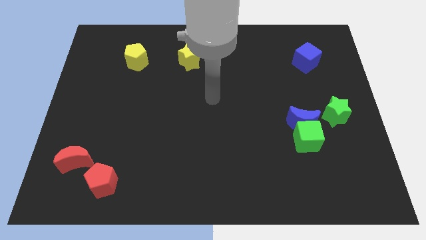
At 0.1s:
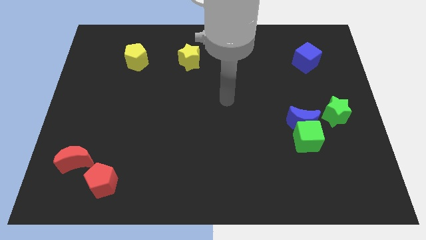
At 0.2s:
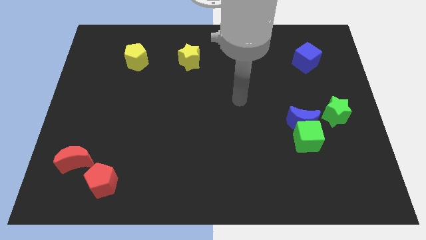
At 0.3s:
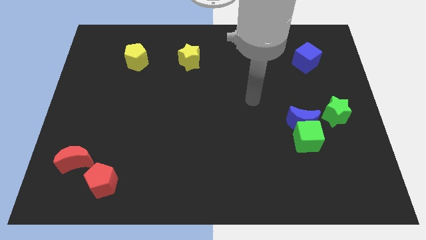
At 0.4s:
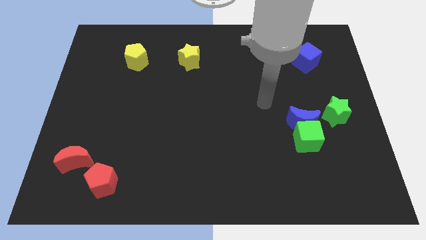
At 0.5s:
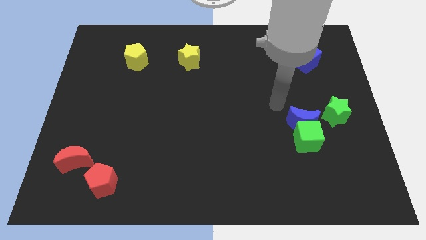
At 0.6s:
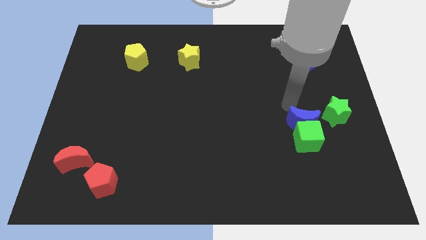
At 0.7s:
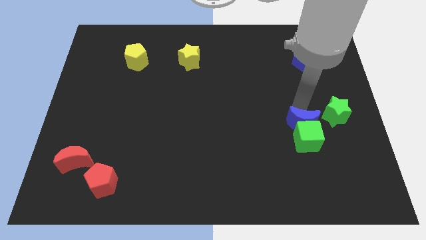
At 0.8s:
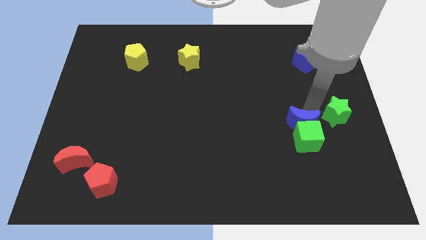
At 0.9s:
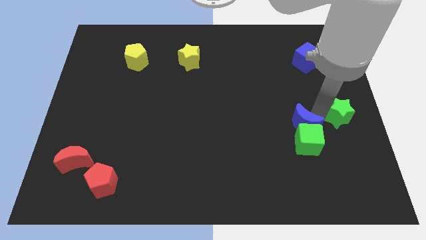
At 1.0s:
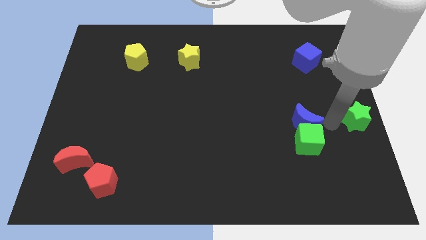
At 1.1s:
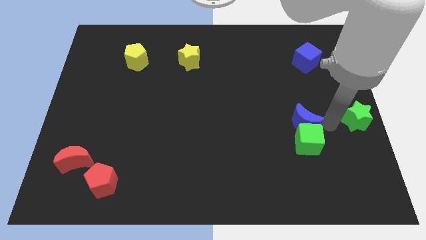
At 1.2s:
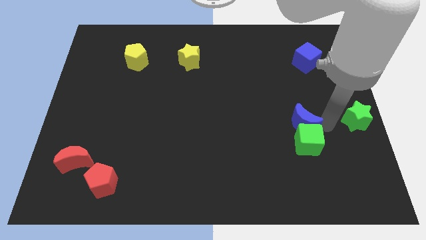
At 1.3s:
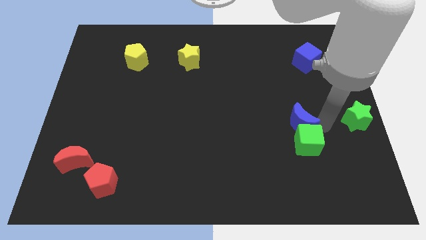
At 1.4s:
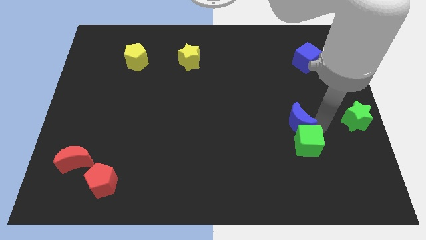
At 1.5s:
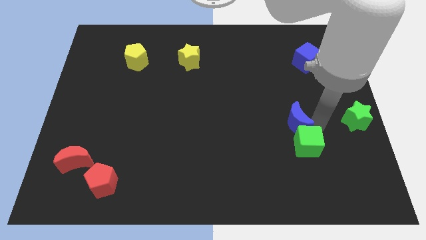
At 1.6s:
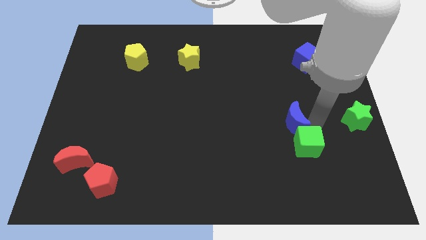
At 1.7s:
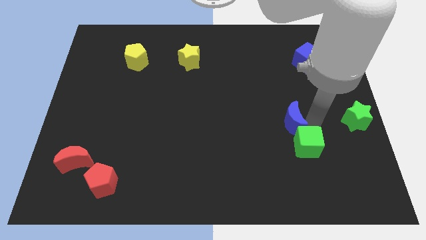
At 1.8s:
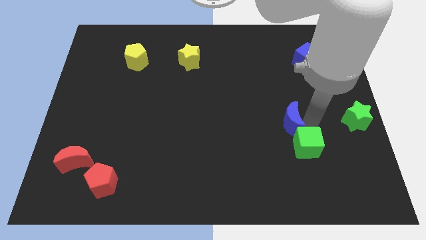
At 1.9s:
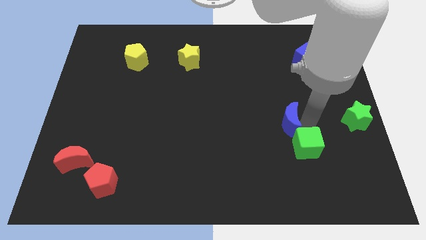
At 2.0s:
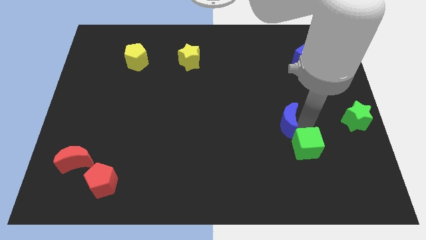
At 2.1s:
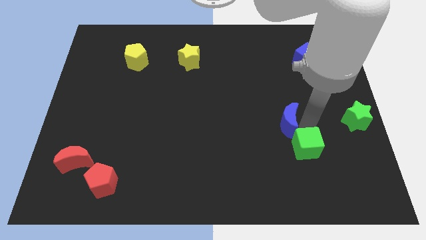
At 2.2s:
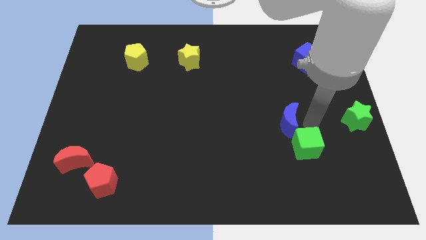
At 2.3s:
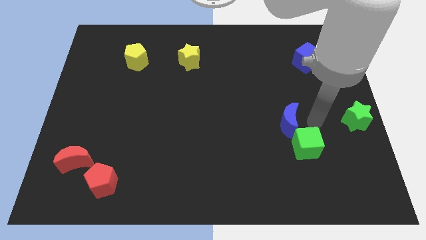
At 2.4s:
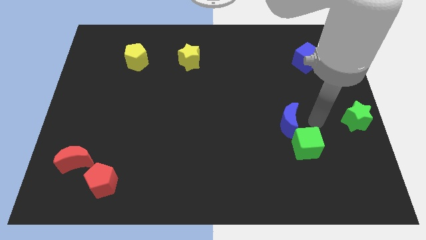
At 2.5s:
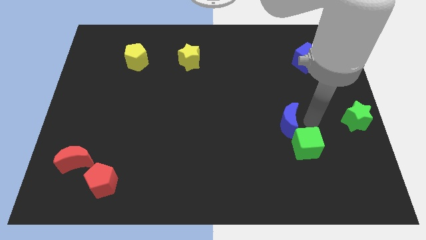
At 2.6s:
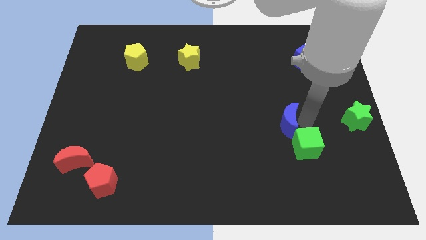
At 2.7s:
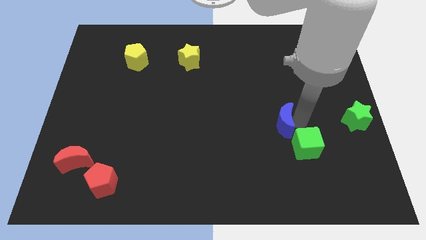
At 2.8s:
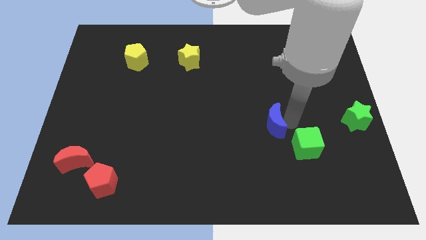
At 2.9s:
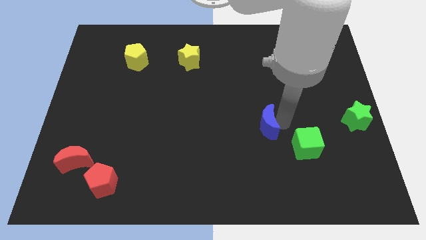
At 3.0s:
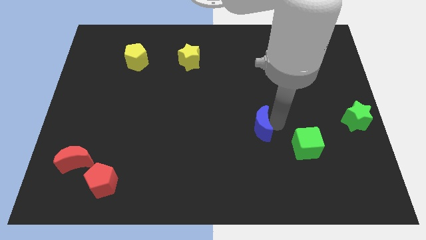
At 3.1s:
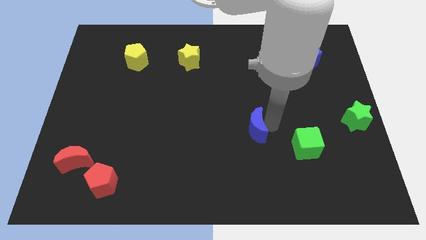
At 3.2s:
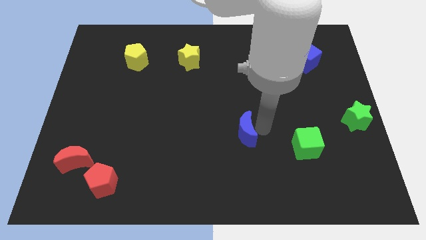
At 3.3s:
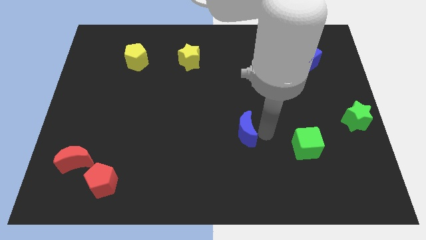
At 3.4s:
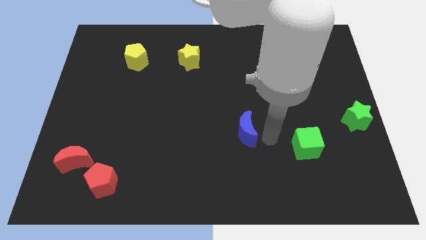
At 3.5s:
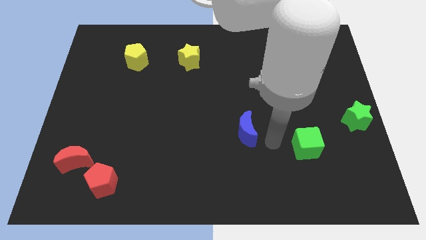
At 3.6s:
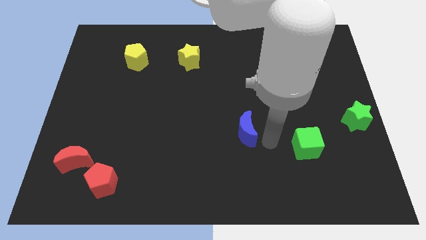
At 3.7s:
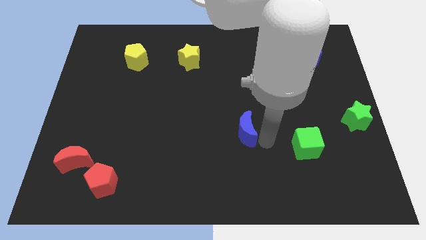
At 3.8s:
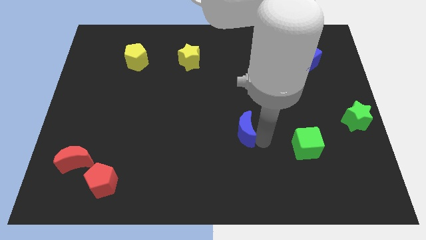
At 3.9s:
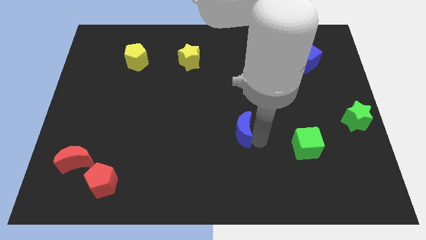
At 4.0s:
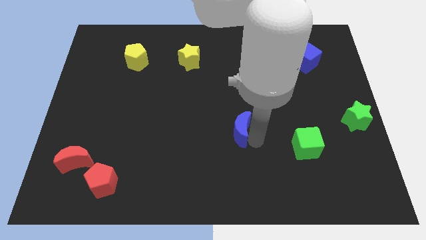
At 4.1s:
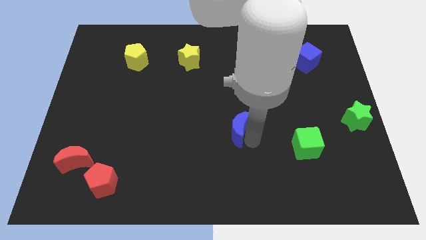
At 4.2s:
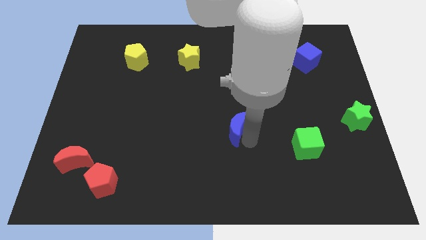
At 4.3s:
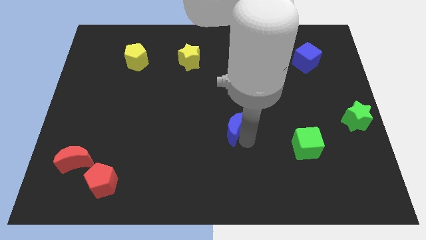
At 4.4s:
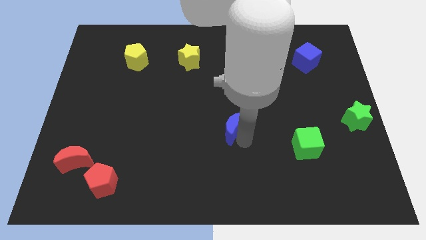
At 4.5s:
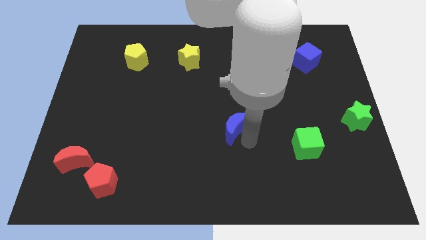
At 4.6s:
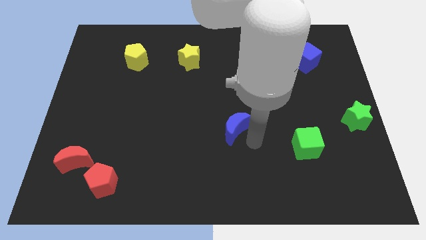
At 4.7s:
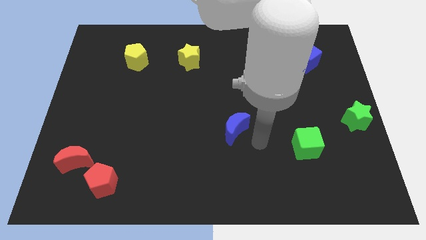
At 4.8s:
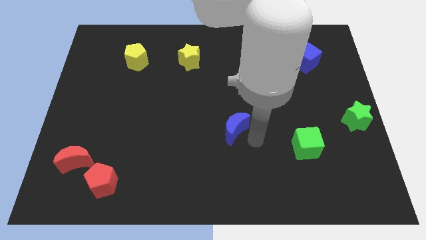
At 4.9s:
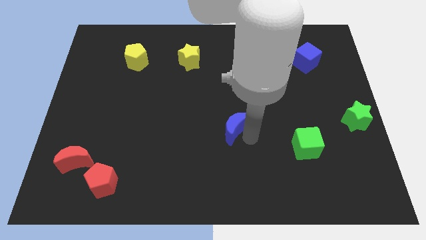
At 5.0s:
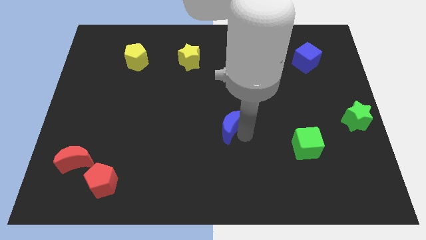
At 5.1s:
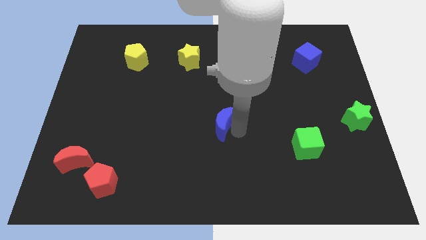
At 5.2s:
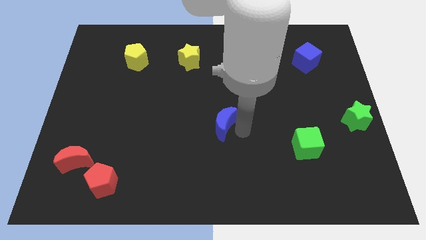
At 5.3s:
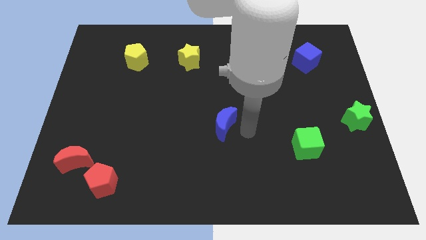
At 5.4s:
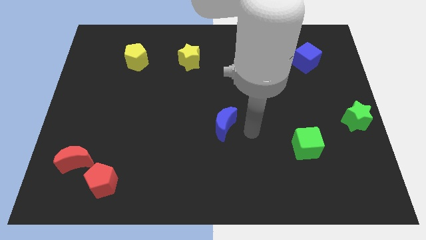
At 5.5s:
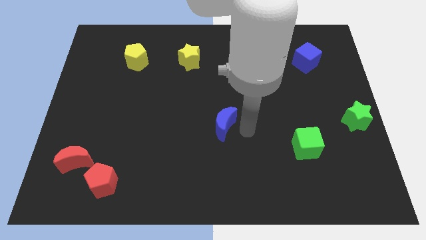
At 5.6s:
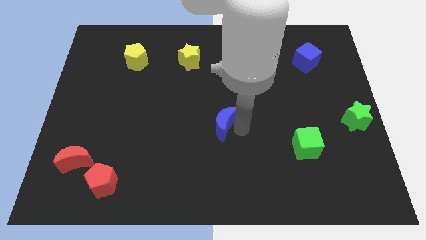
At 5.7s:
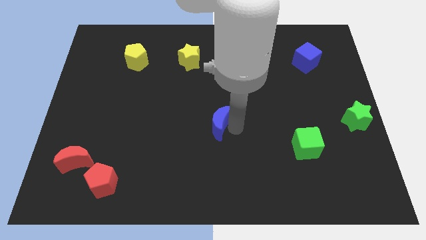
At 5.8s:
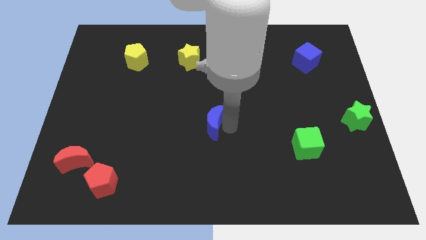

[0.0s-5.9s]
push the blue moon to the left

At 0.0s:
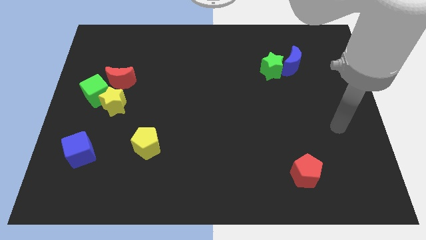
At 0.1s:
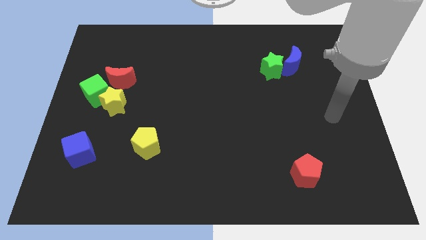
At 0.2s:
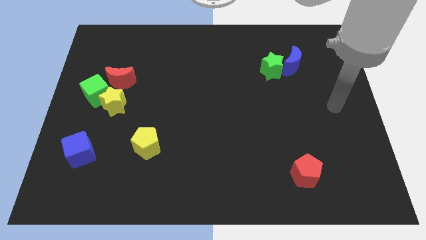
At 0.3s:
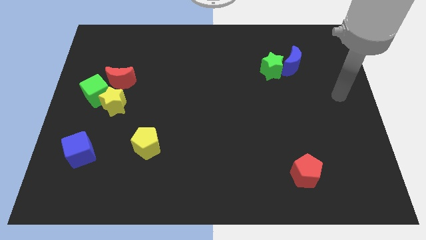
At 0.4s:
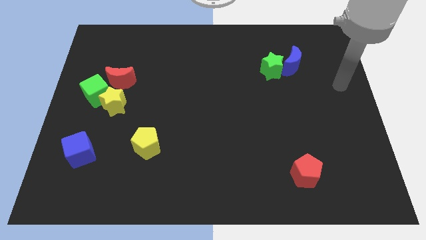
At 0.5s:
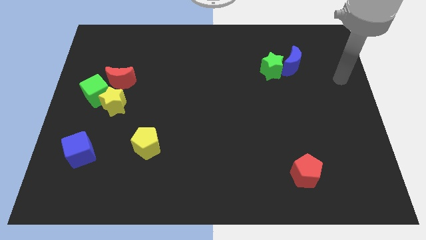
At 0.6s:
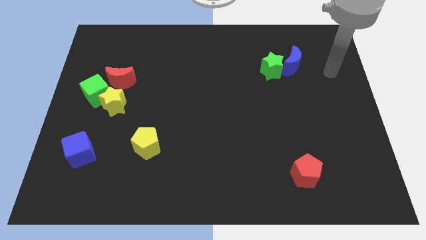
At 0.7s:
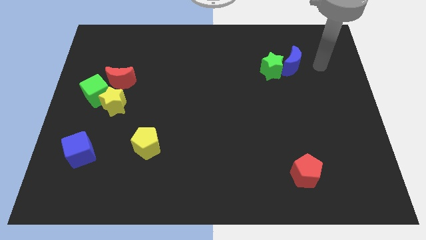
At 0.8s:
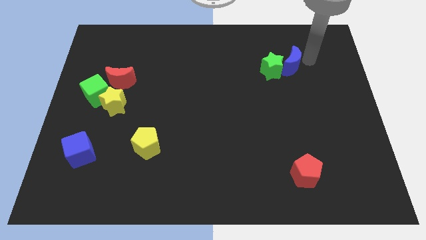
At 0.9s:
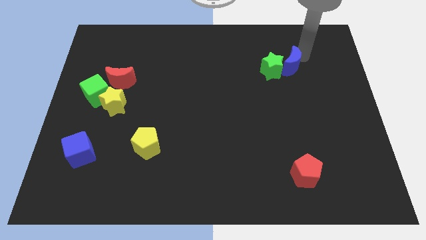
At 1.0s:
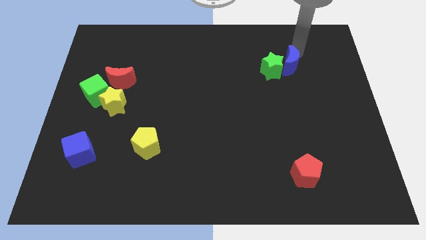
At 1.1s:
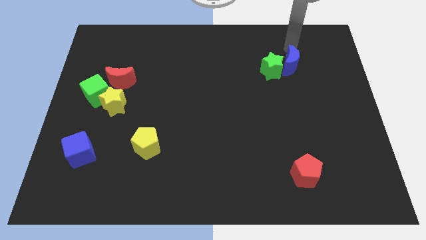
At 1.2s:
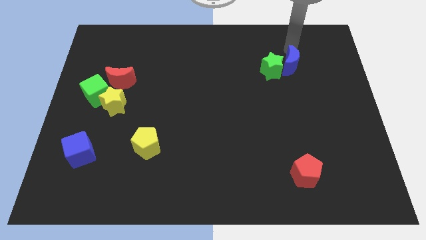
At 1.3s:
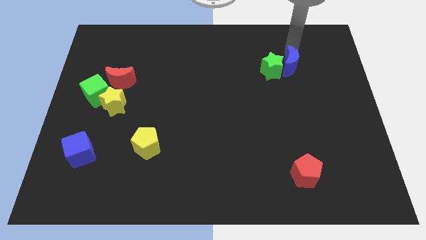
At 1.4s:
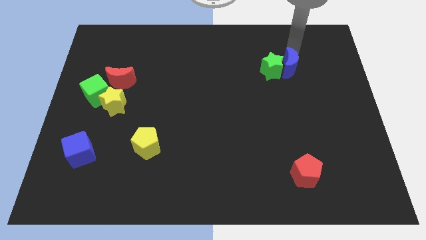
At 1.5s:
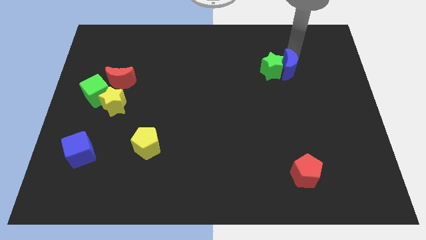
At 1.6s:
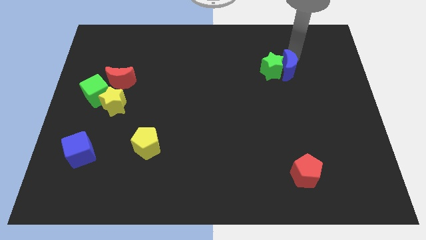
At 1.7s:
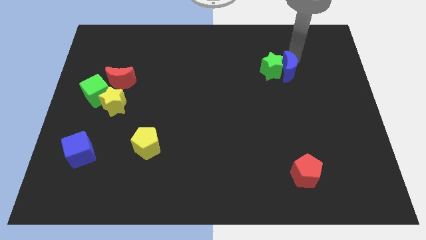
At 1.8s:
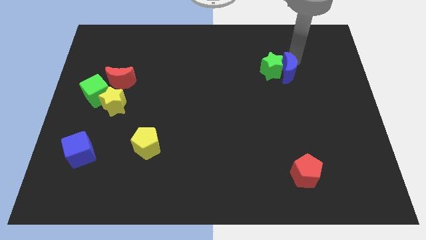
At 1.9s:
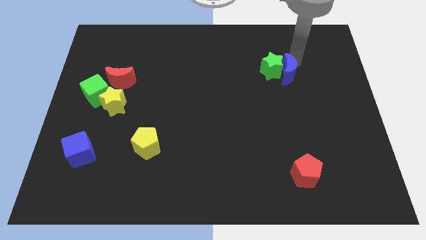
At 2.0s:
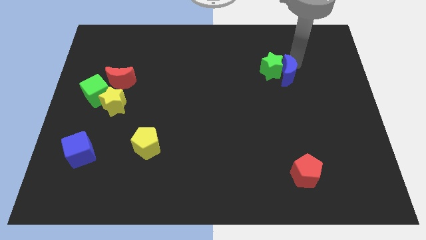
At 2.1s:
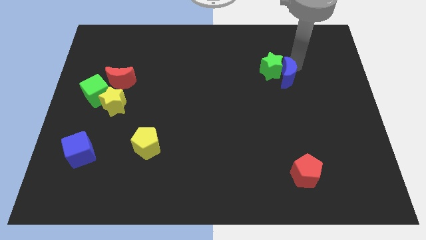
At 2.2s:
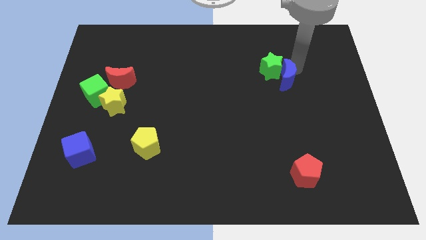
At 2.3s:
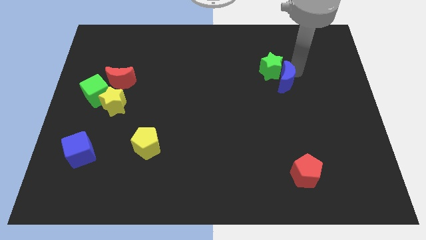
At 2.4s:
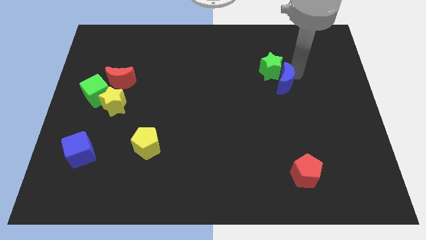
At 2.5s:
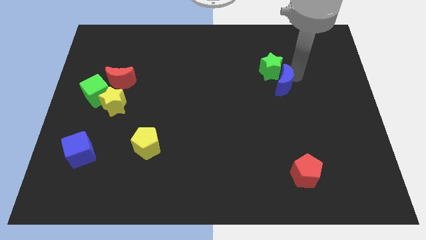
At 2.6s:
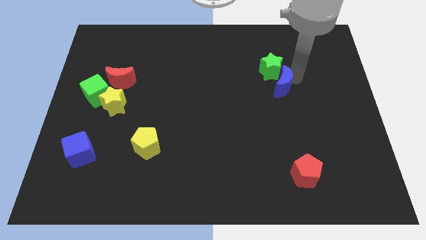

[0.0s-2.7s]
slightly push the blue moon down
